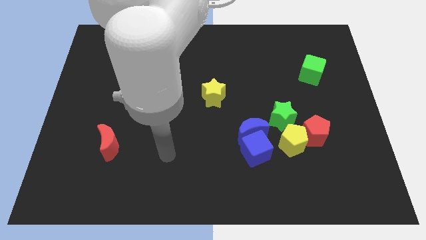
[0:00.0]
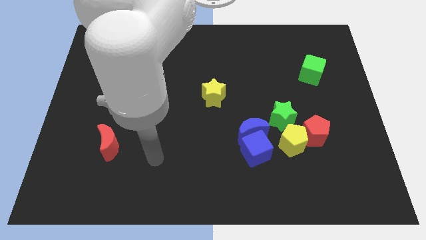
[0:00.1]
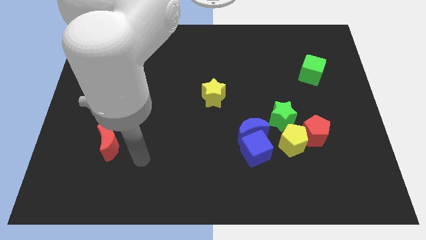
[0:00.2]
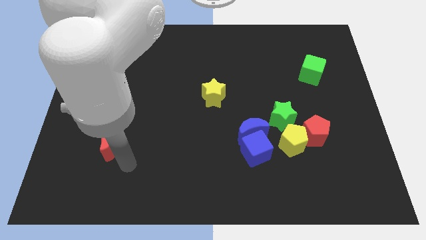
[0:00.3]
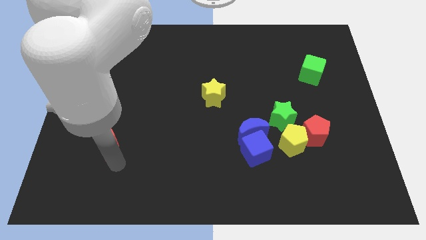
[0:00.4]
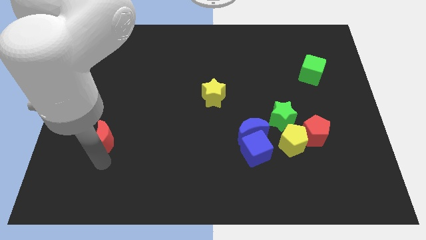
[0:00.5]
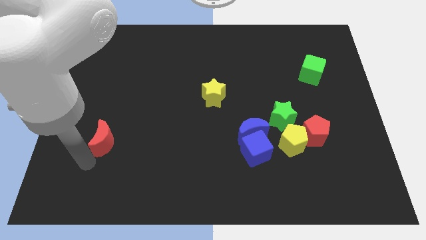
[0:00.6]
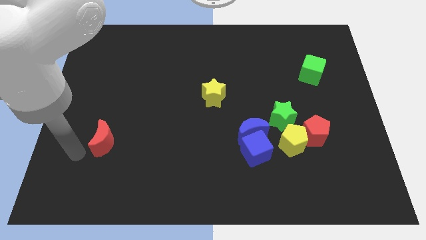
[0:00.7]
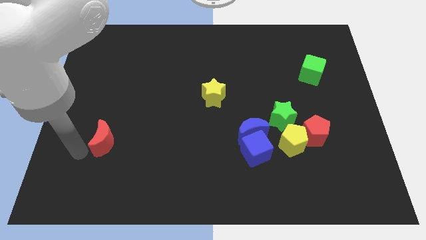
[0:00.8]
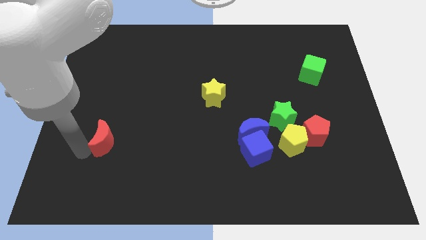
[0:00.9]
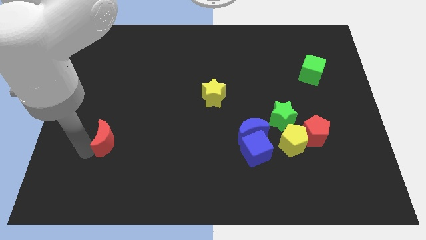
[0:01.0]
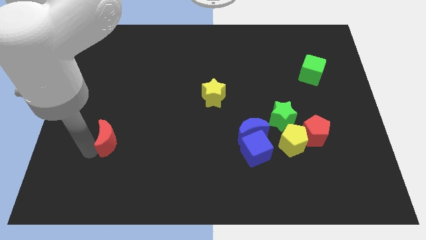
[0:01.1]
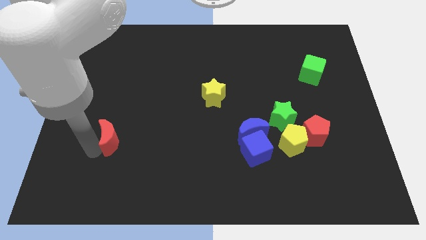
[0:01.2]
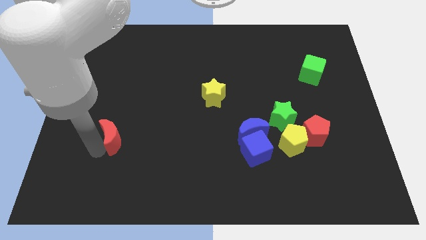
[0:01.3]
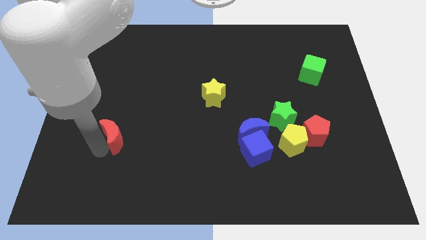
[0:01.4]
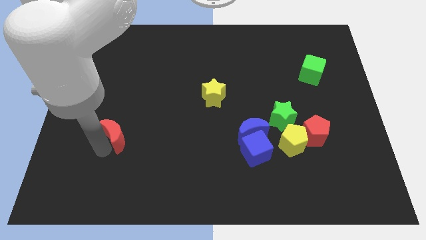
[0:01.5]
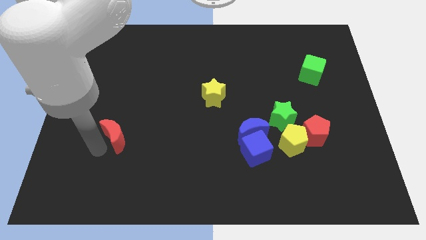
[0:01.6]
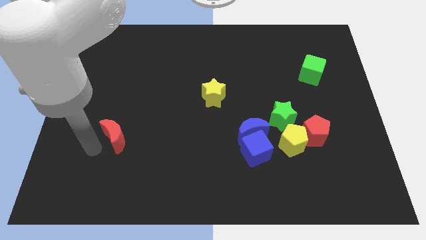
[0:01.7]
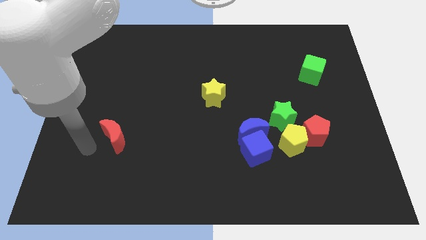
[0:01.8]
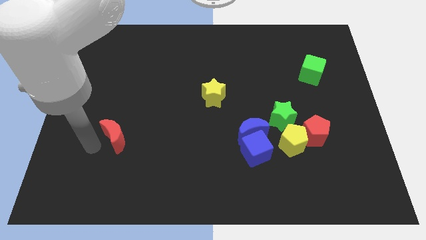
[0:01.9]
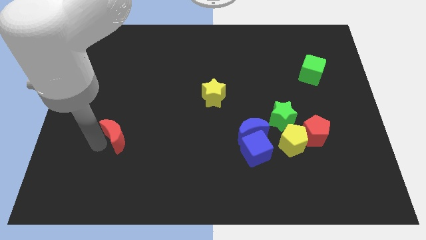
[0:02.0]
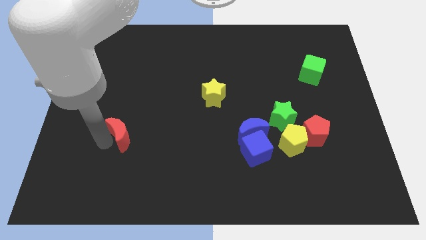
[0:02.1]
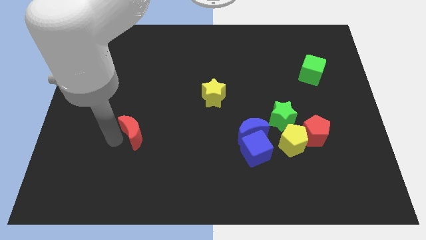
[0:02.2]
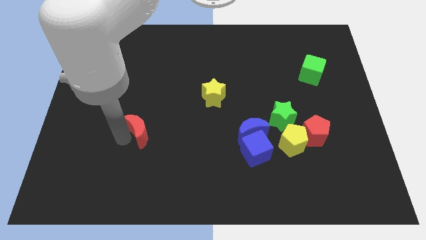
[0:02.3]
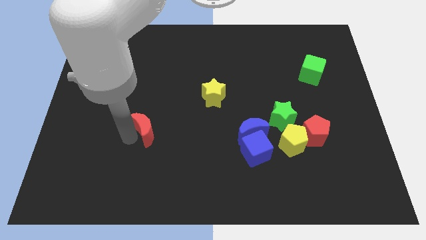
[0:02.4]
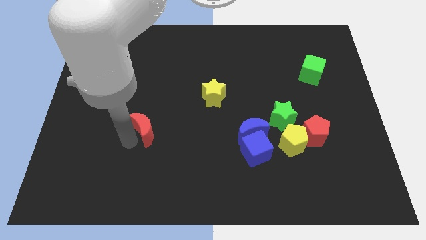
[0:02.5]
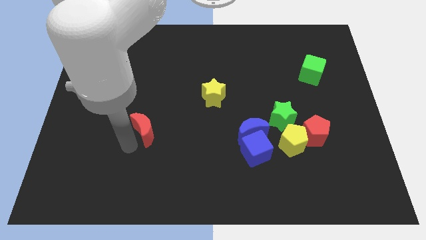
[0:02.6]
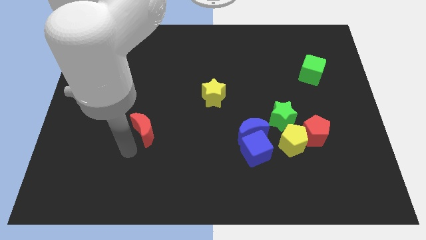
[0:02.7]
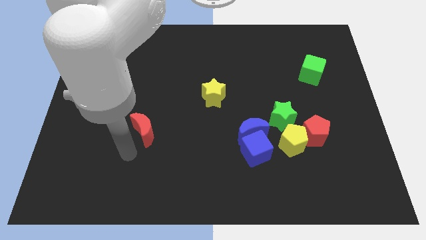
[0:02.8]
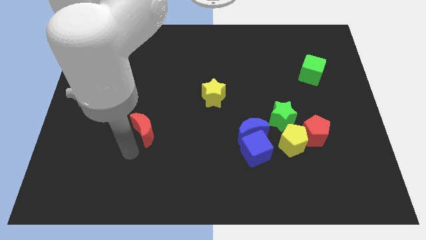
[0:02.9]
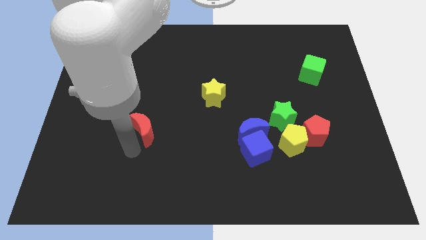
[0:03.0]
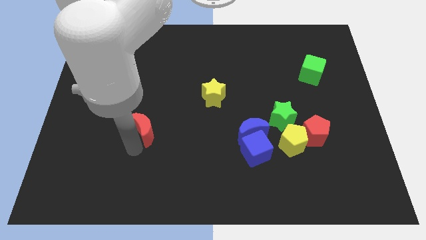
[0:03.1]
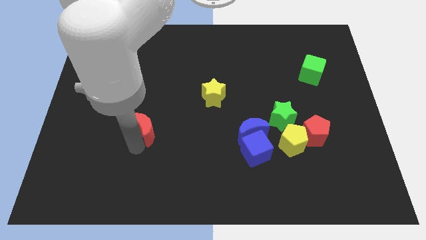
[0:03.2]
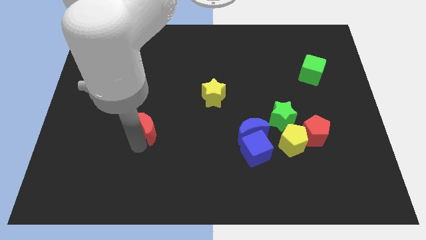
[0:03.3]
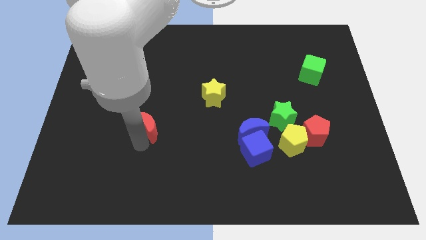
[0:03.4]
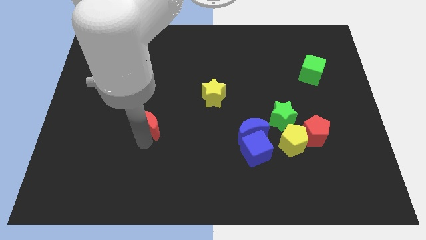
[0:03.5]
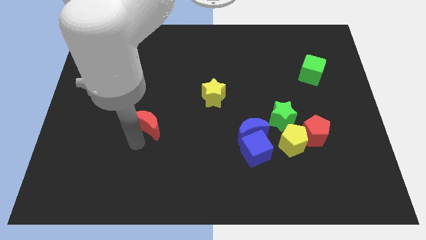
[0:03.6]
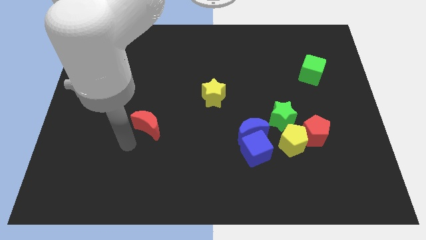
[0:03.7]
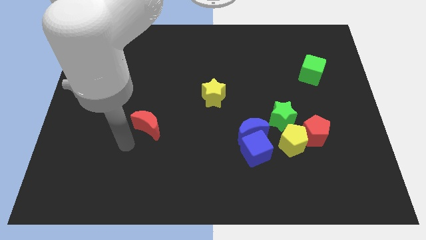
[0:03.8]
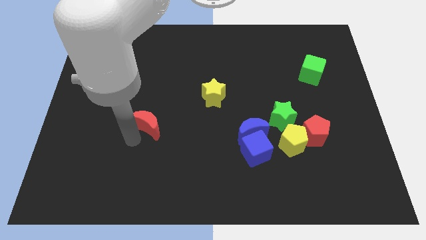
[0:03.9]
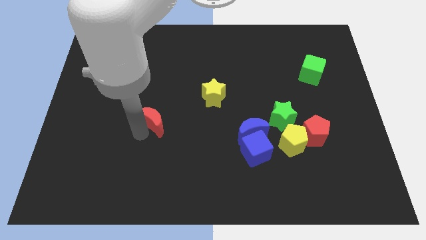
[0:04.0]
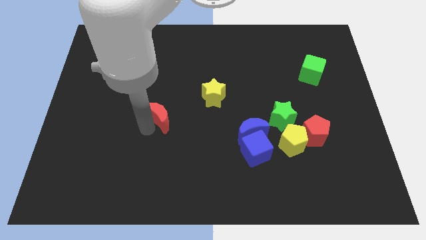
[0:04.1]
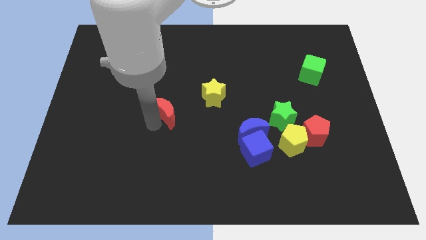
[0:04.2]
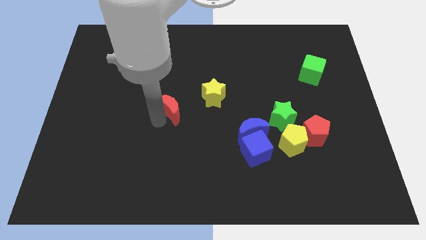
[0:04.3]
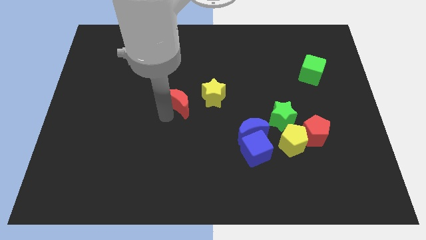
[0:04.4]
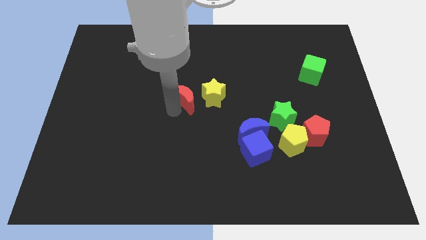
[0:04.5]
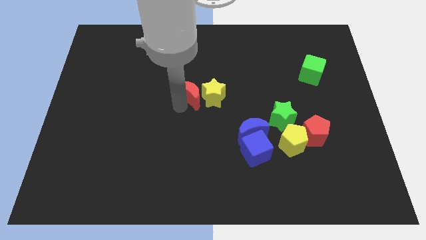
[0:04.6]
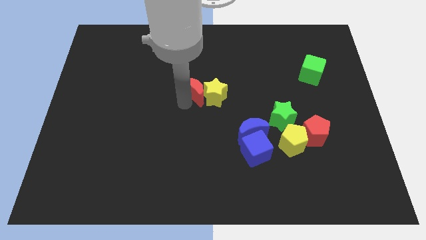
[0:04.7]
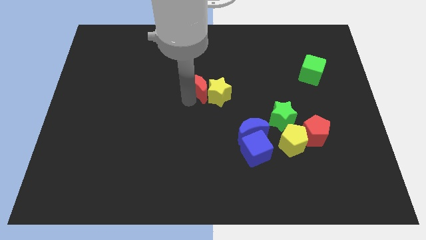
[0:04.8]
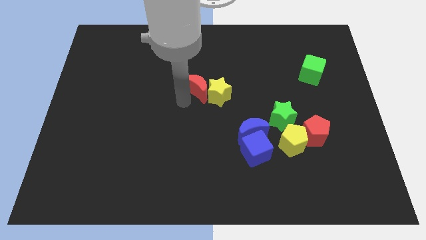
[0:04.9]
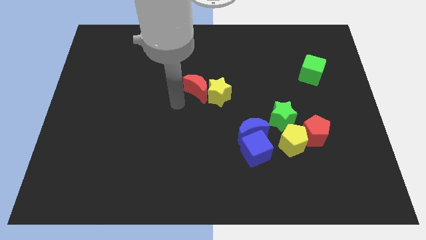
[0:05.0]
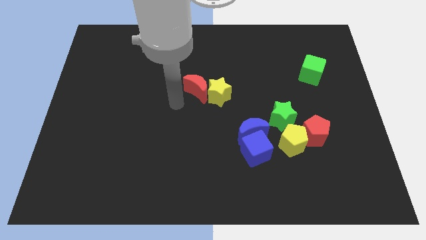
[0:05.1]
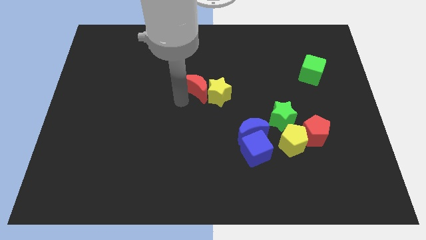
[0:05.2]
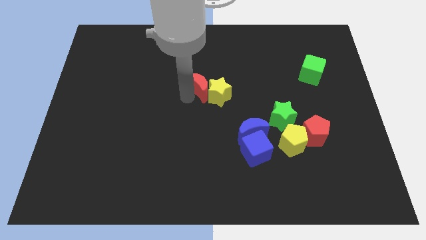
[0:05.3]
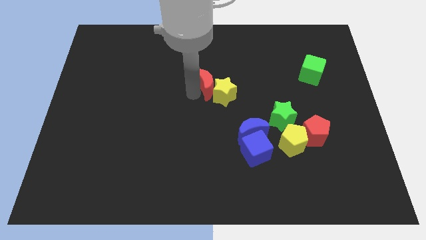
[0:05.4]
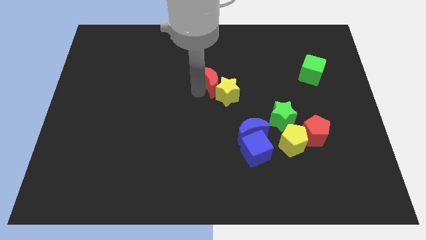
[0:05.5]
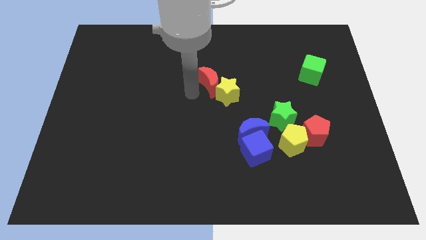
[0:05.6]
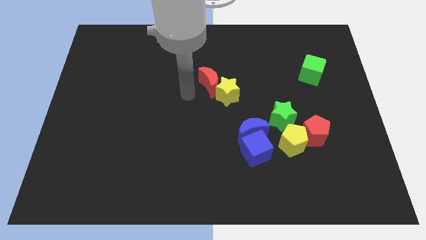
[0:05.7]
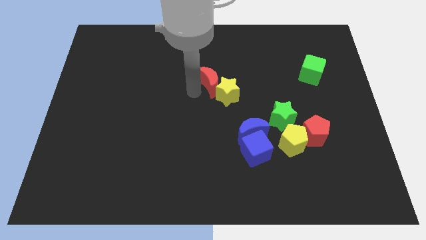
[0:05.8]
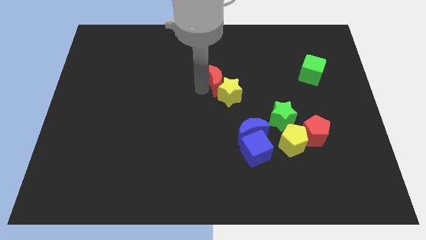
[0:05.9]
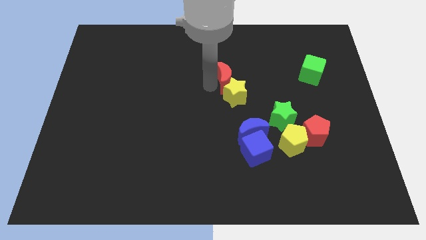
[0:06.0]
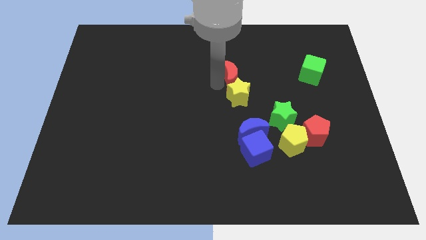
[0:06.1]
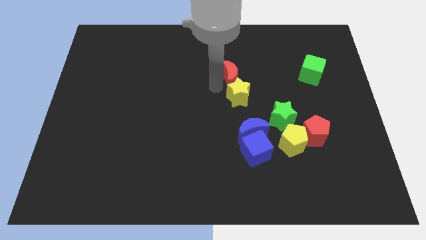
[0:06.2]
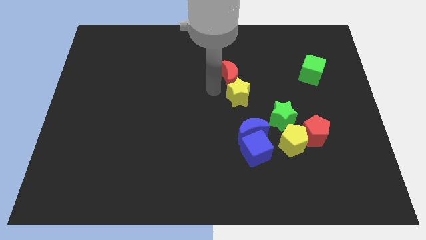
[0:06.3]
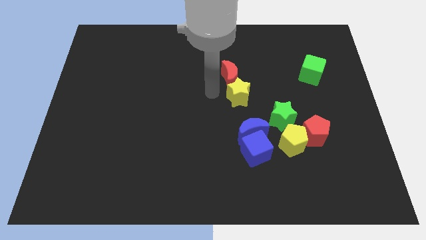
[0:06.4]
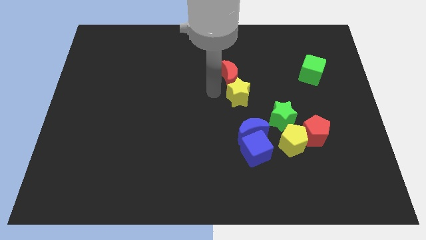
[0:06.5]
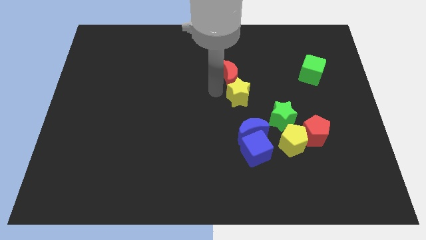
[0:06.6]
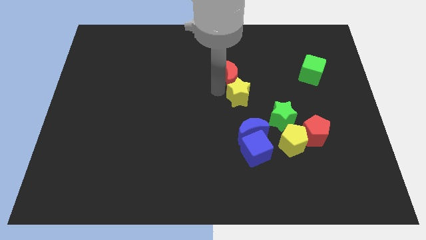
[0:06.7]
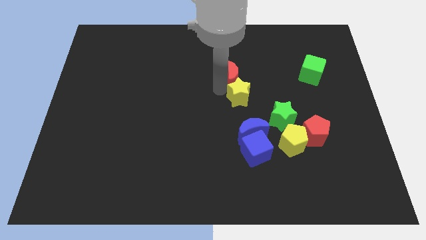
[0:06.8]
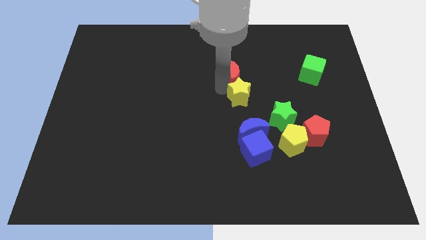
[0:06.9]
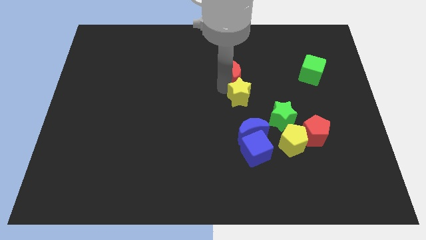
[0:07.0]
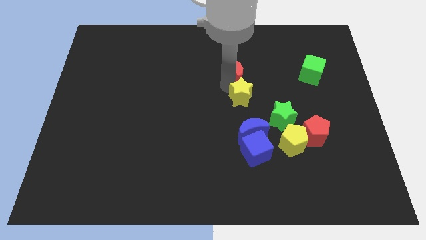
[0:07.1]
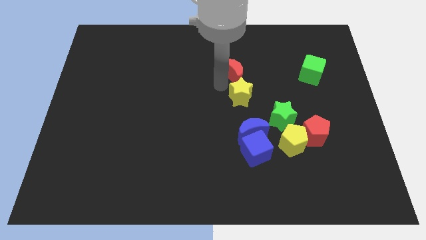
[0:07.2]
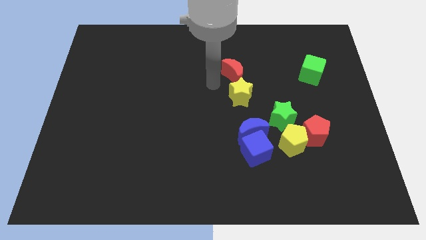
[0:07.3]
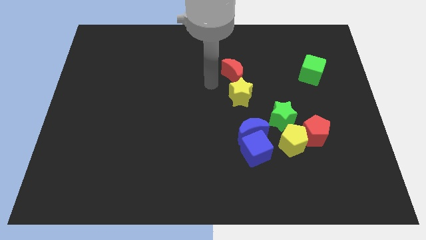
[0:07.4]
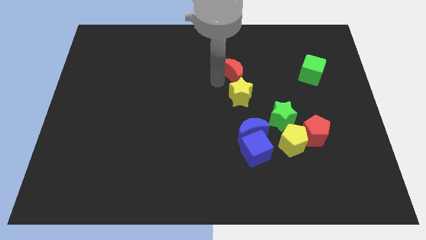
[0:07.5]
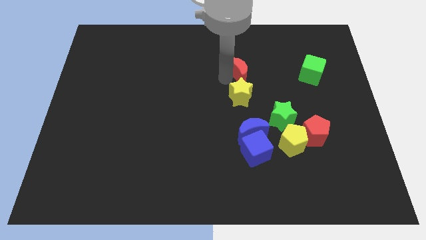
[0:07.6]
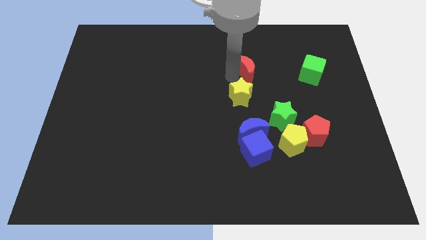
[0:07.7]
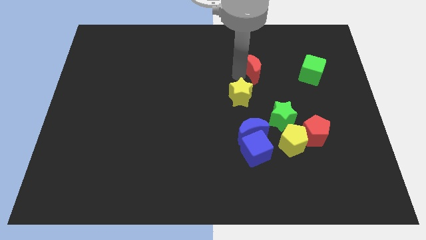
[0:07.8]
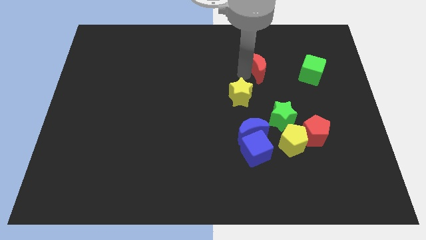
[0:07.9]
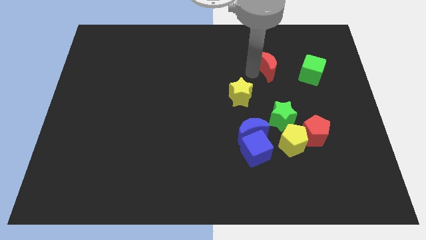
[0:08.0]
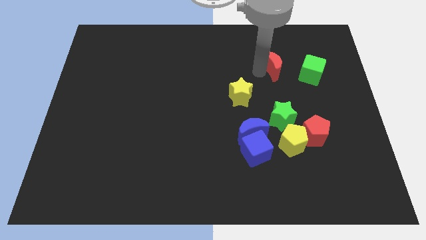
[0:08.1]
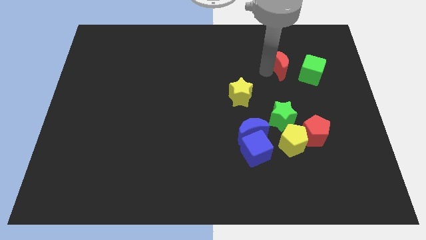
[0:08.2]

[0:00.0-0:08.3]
put the red moon diagonally up and to the left of the green cube
